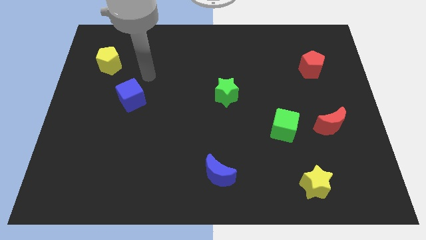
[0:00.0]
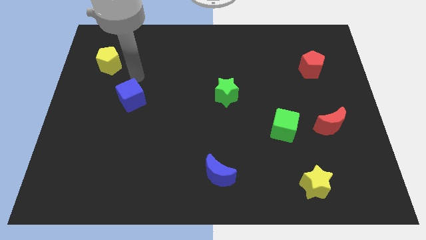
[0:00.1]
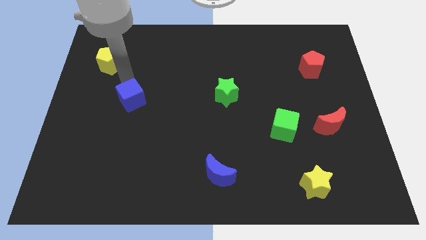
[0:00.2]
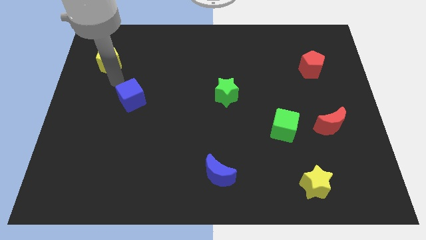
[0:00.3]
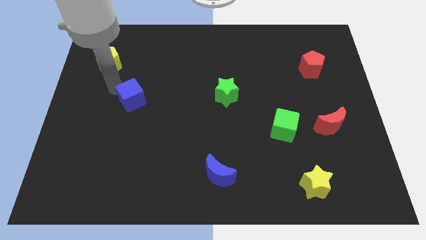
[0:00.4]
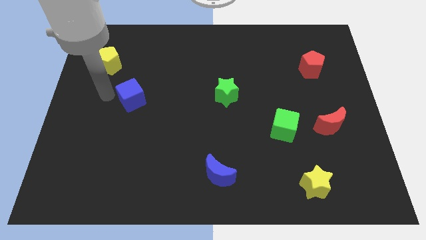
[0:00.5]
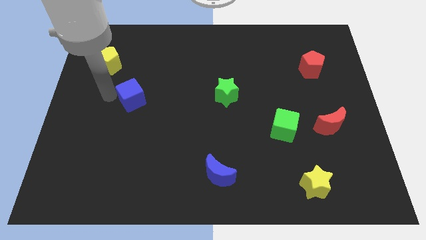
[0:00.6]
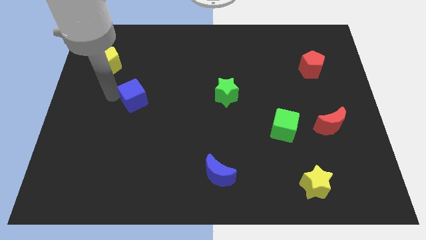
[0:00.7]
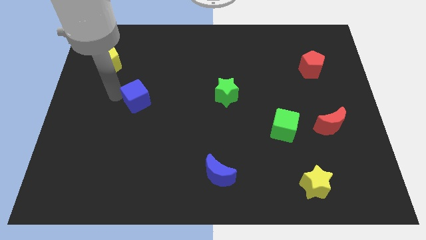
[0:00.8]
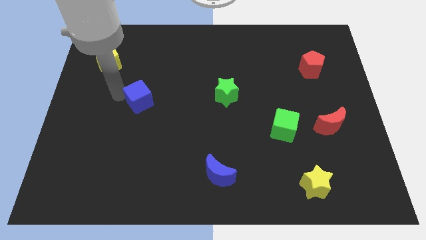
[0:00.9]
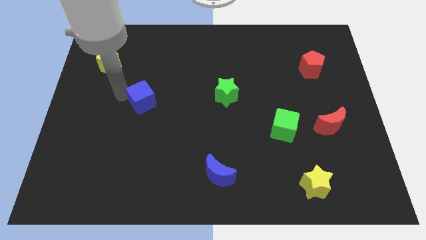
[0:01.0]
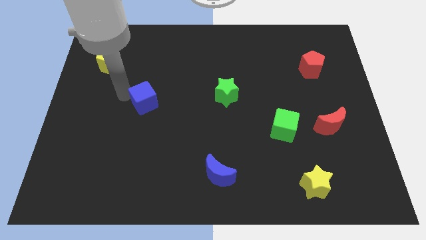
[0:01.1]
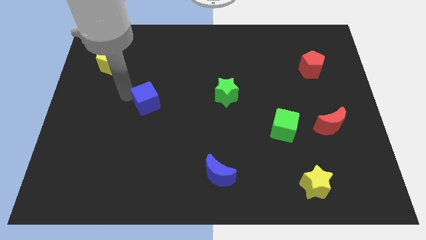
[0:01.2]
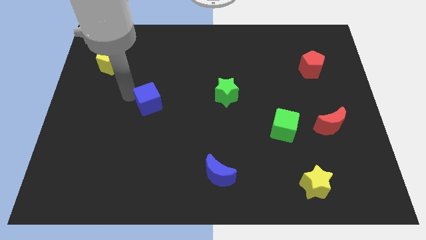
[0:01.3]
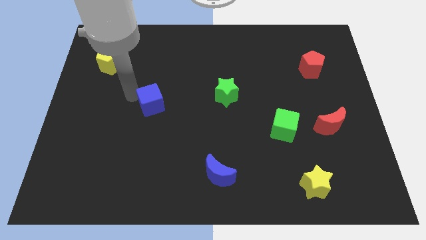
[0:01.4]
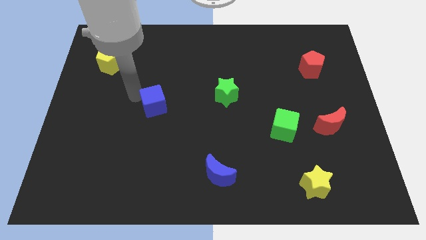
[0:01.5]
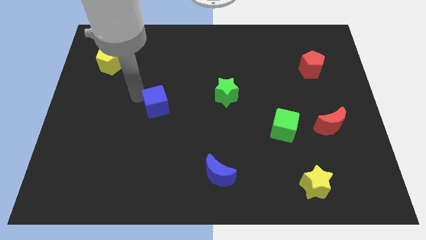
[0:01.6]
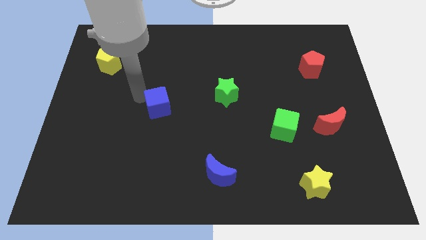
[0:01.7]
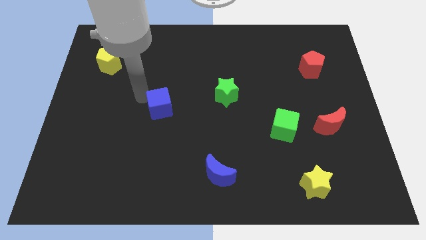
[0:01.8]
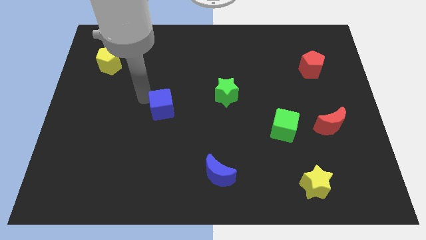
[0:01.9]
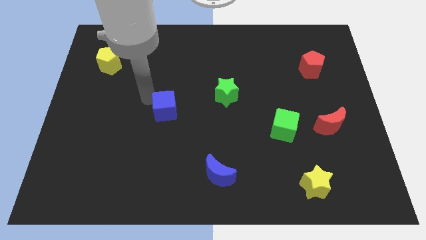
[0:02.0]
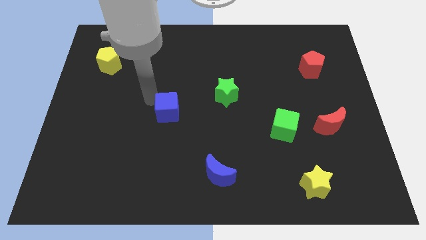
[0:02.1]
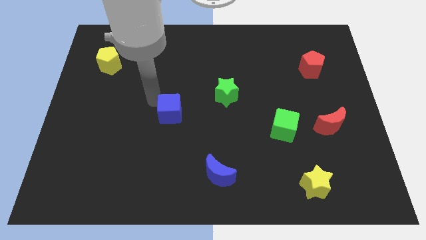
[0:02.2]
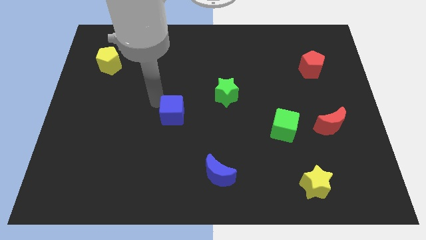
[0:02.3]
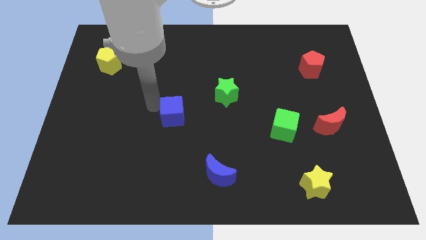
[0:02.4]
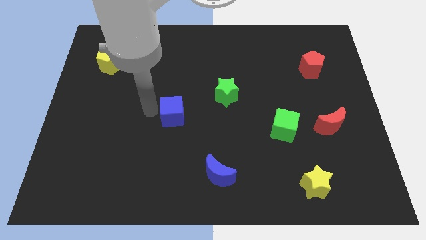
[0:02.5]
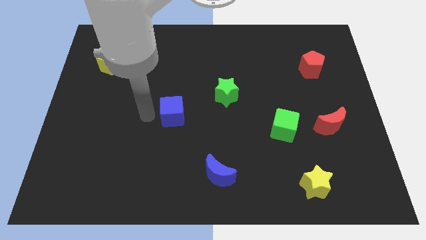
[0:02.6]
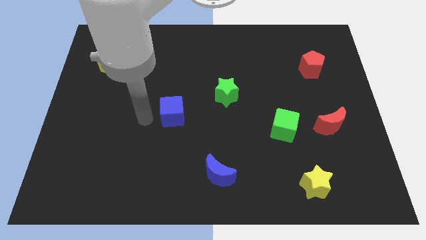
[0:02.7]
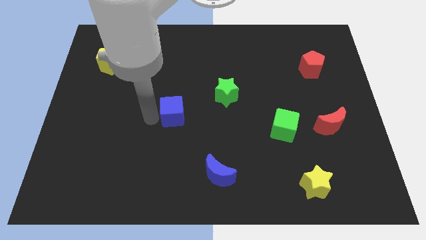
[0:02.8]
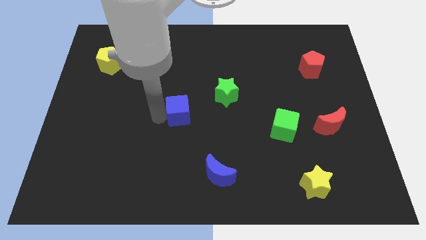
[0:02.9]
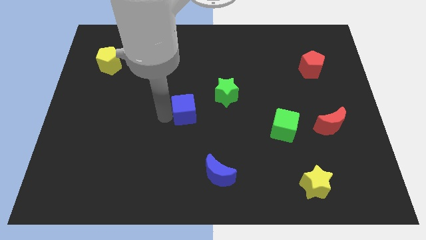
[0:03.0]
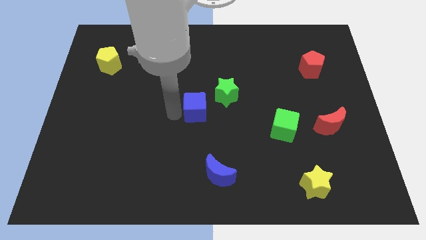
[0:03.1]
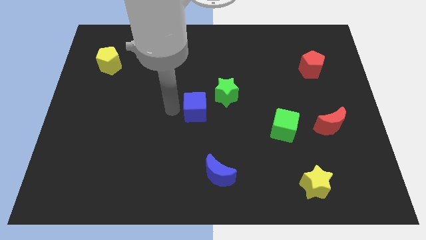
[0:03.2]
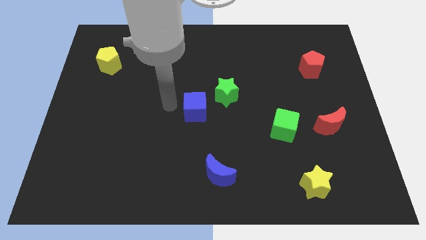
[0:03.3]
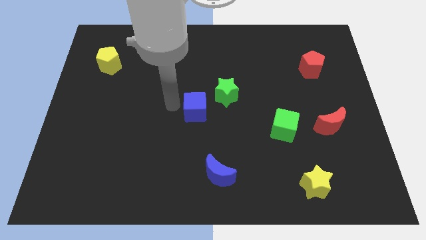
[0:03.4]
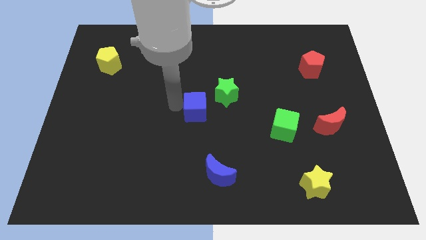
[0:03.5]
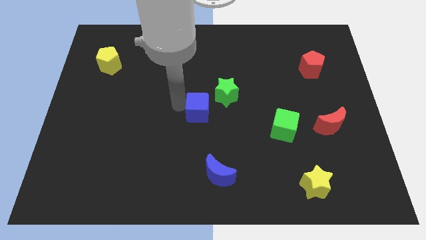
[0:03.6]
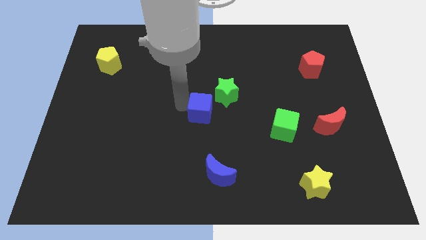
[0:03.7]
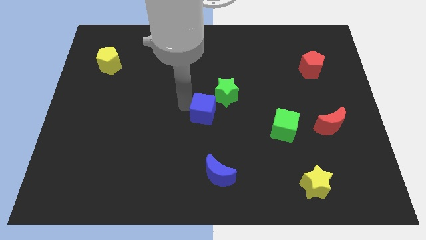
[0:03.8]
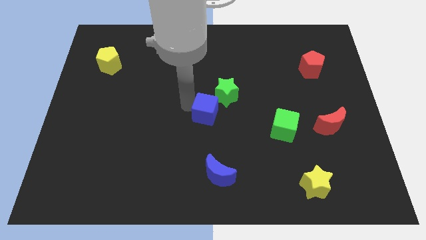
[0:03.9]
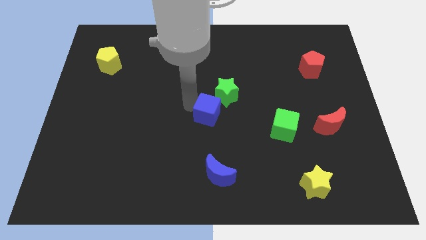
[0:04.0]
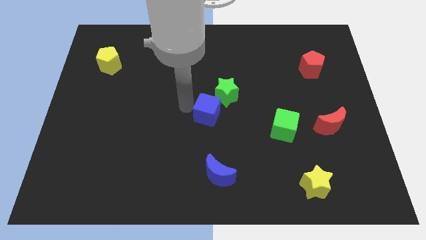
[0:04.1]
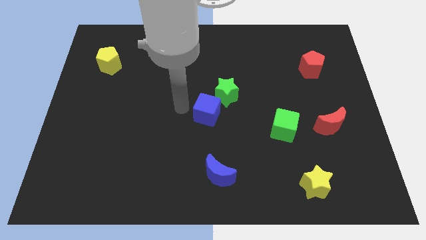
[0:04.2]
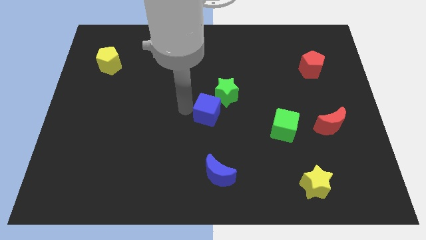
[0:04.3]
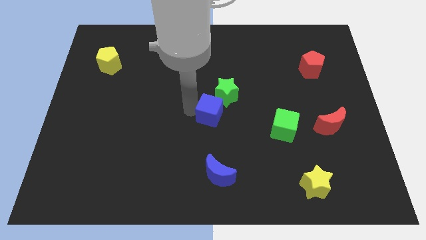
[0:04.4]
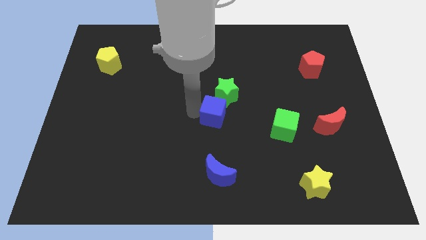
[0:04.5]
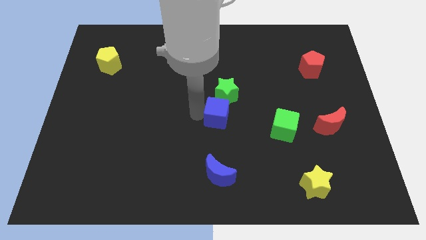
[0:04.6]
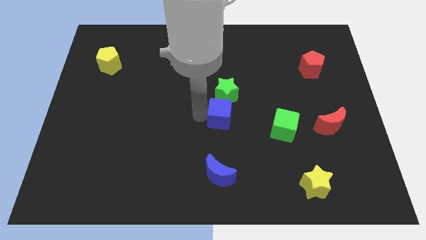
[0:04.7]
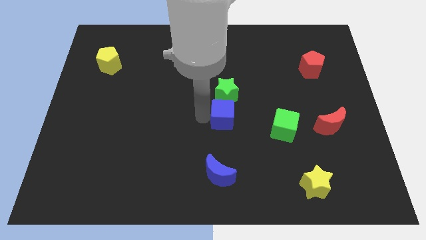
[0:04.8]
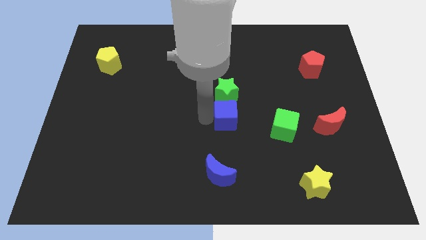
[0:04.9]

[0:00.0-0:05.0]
push the blue cube to the bottom right of the green star

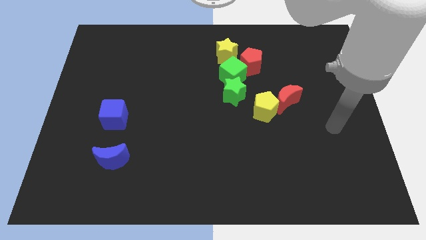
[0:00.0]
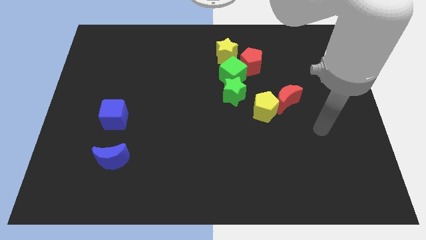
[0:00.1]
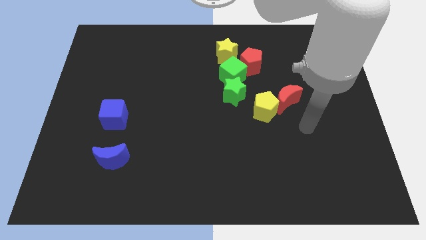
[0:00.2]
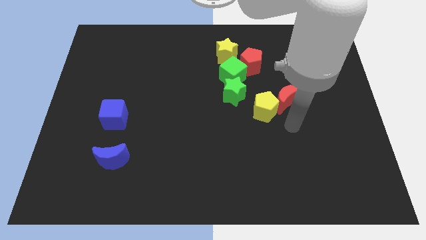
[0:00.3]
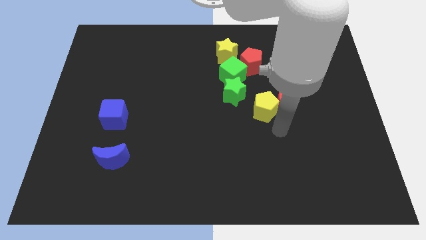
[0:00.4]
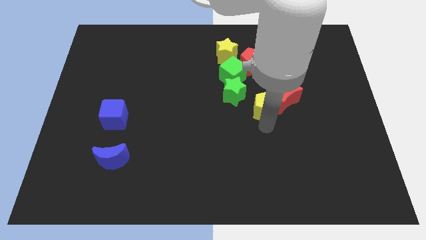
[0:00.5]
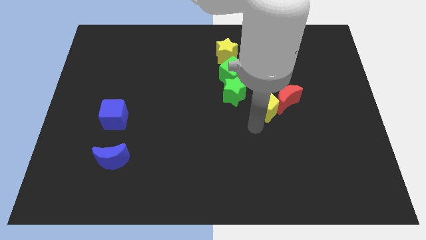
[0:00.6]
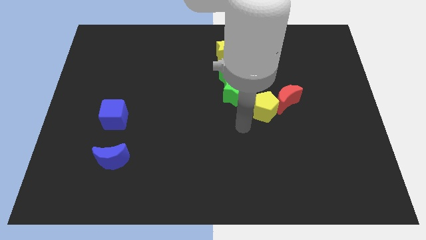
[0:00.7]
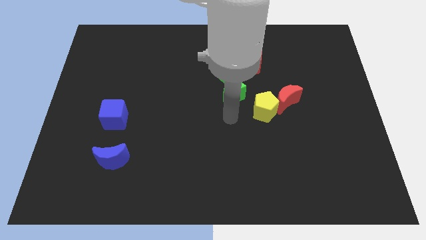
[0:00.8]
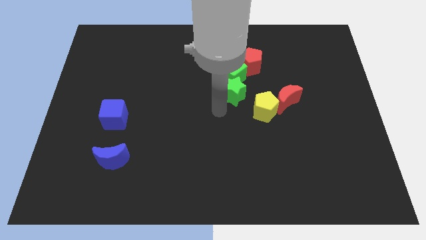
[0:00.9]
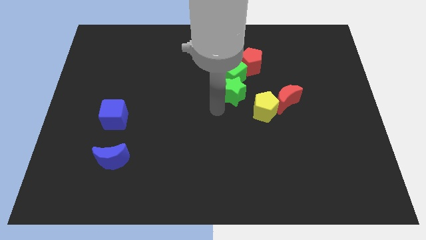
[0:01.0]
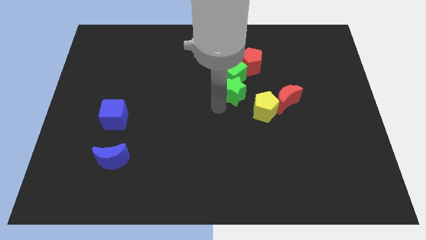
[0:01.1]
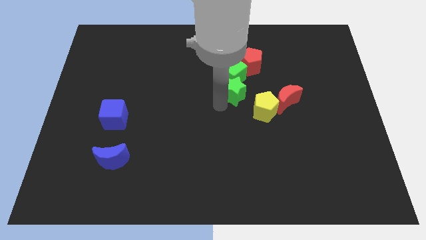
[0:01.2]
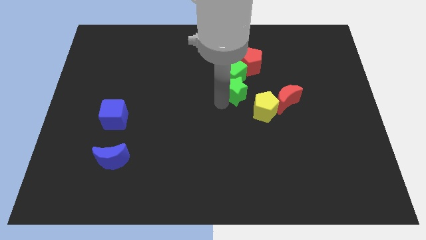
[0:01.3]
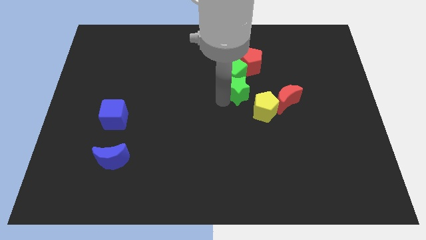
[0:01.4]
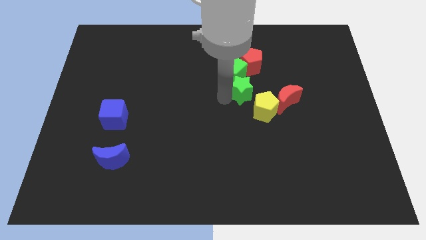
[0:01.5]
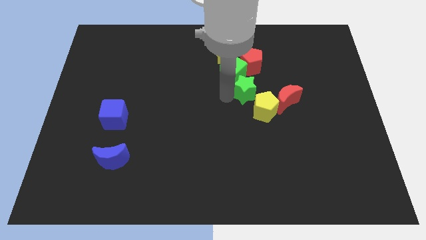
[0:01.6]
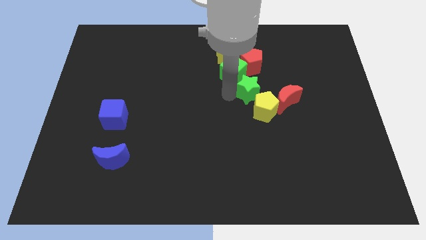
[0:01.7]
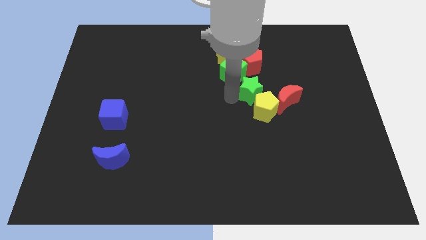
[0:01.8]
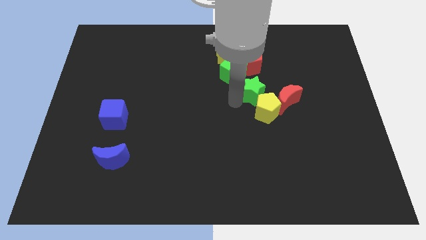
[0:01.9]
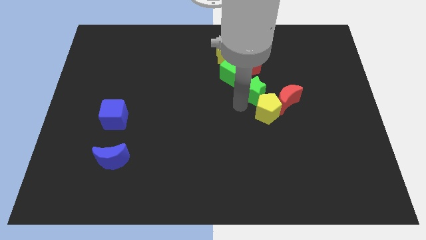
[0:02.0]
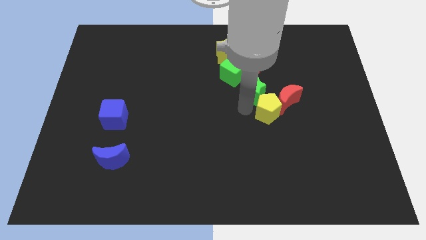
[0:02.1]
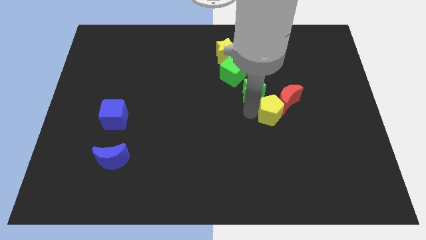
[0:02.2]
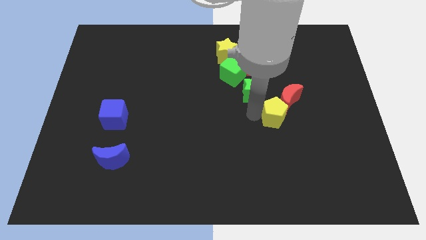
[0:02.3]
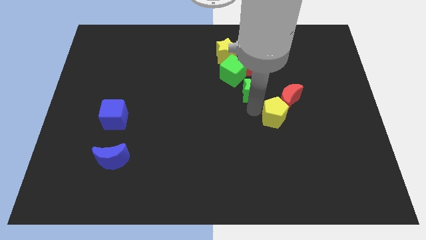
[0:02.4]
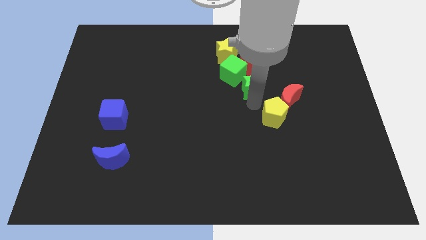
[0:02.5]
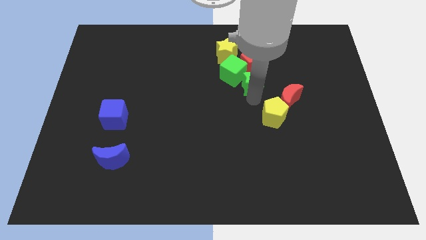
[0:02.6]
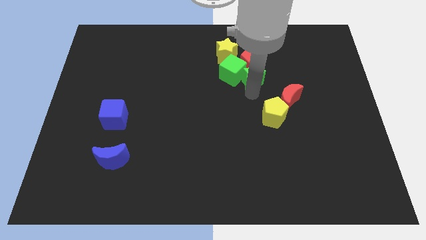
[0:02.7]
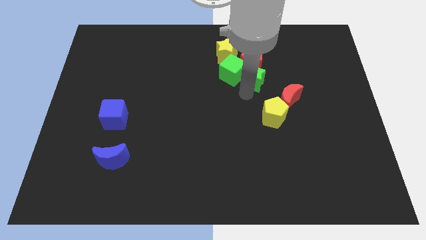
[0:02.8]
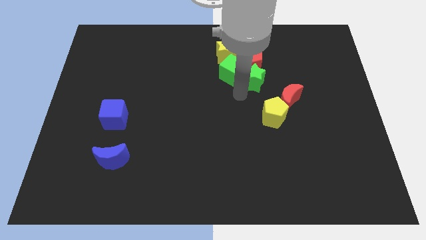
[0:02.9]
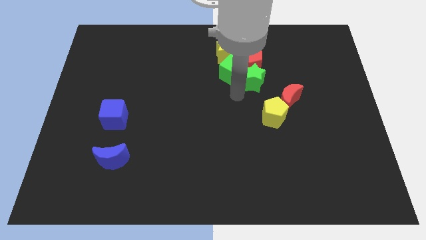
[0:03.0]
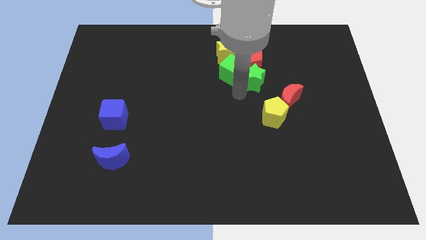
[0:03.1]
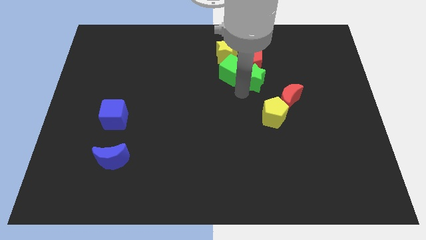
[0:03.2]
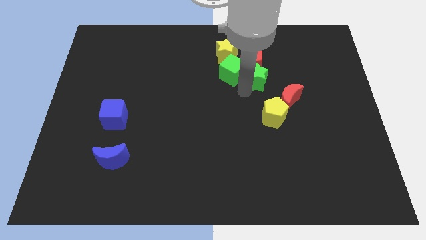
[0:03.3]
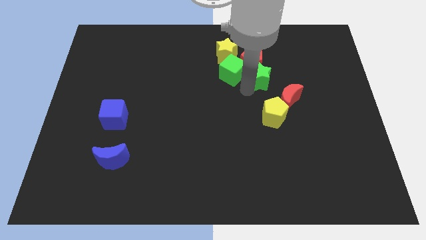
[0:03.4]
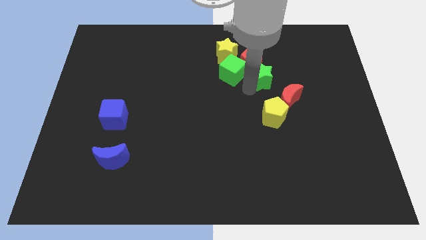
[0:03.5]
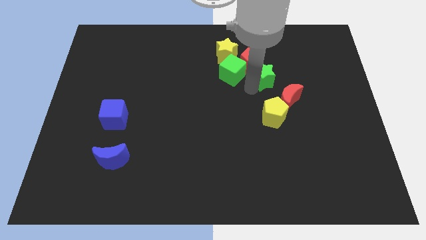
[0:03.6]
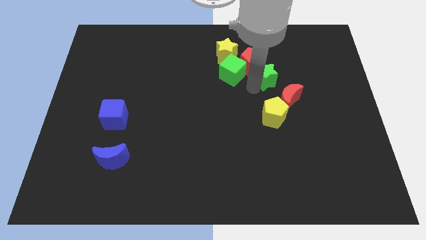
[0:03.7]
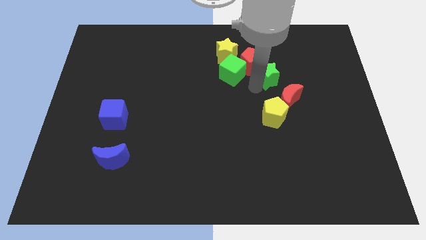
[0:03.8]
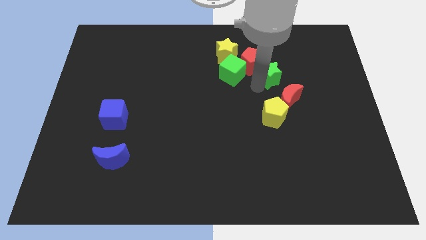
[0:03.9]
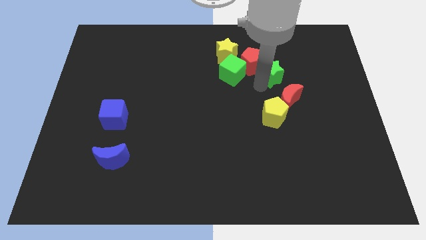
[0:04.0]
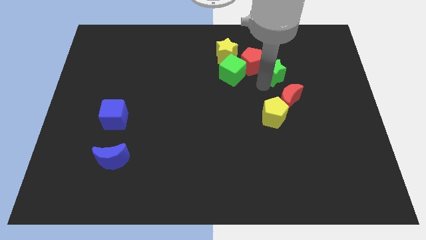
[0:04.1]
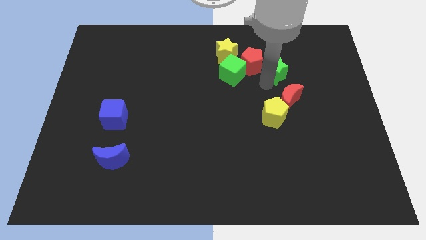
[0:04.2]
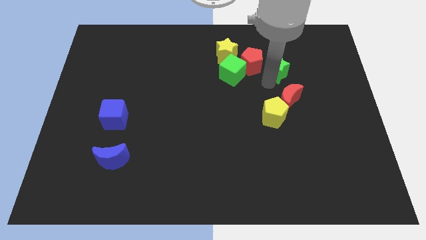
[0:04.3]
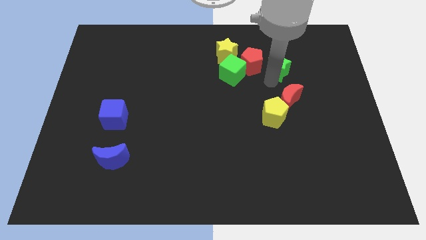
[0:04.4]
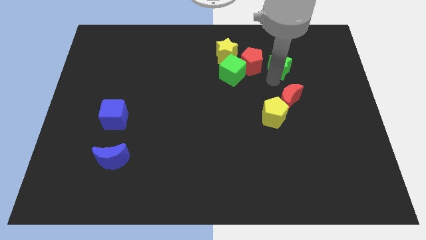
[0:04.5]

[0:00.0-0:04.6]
put the green star right of the yellow star
